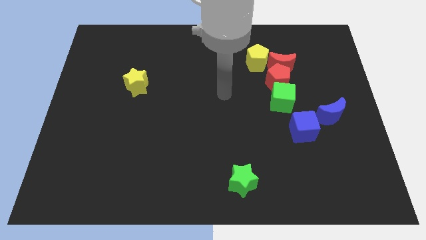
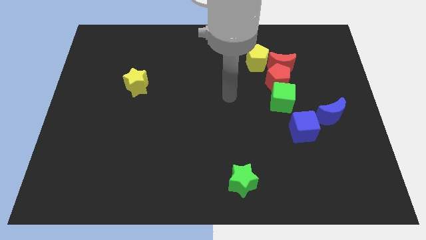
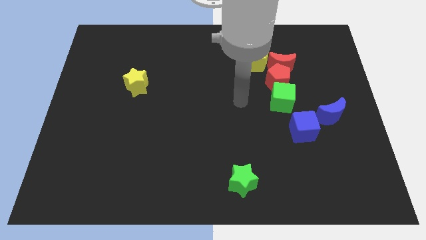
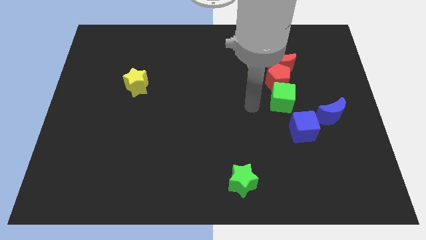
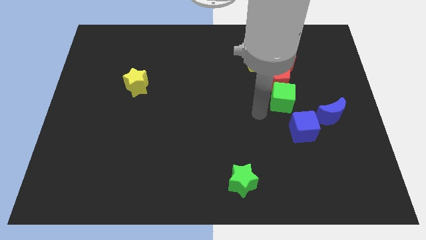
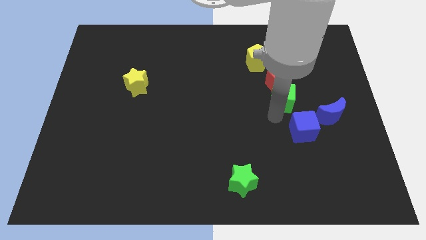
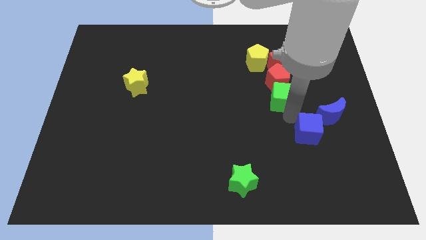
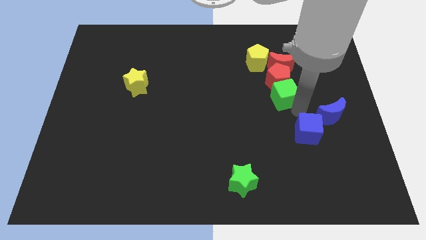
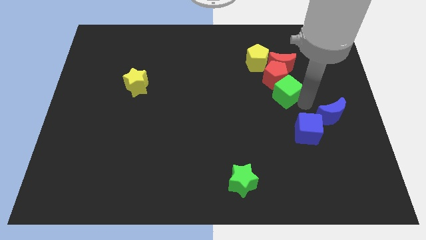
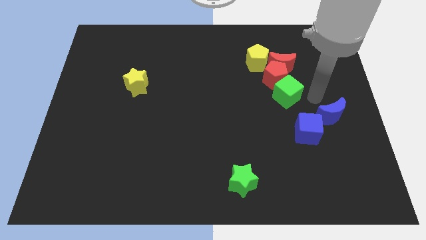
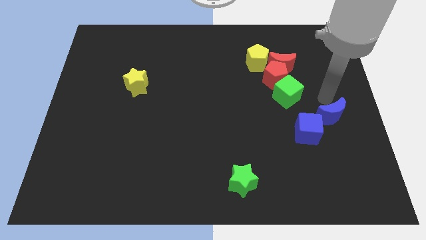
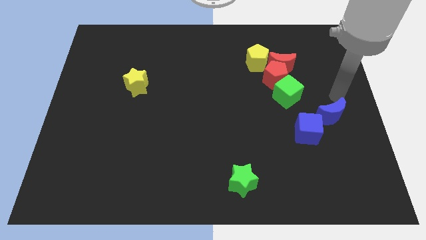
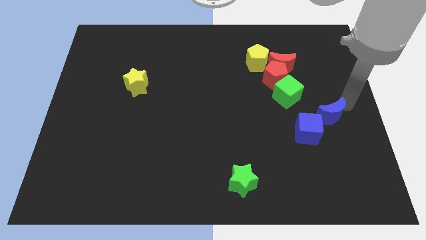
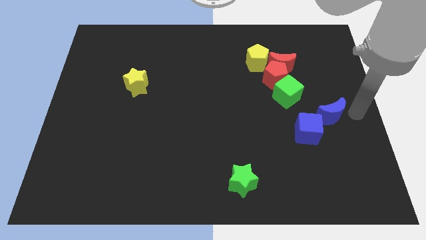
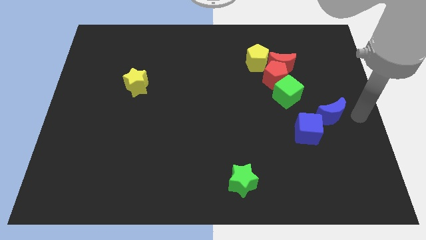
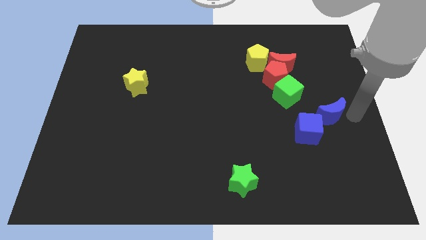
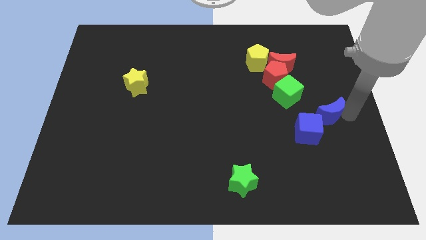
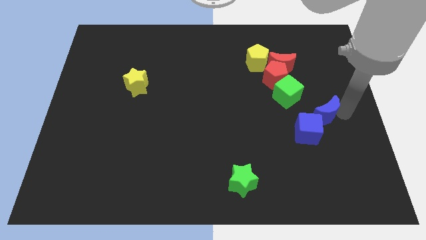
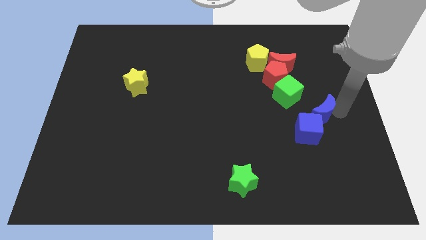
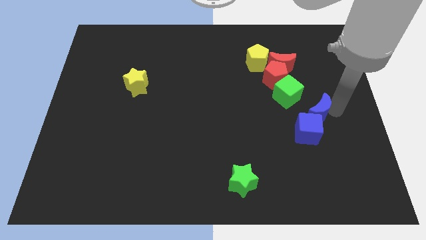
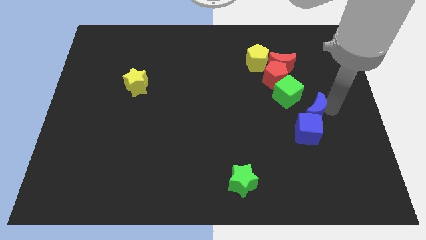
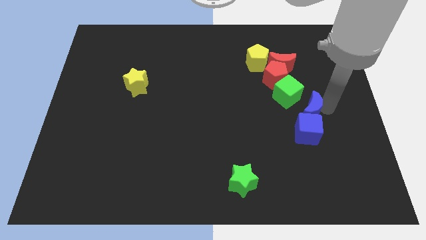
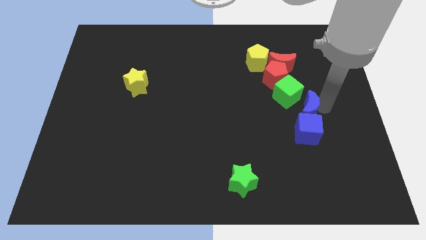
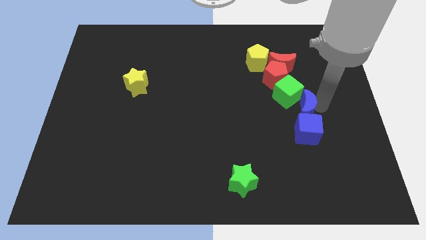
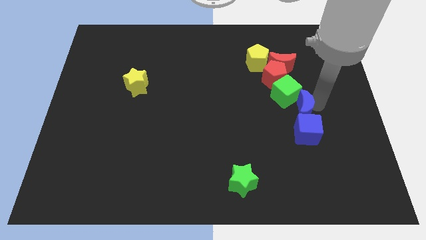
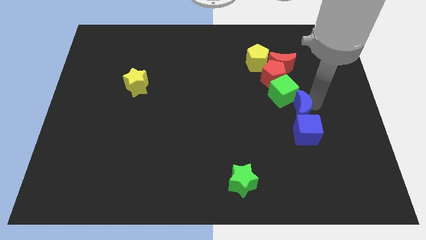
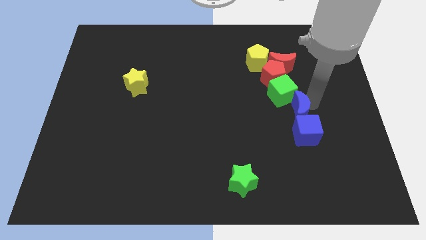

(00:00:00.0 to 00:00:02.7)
slightly push the blue moon to the left

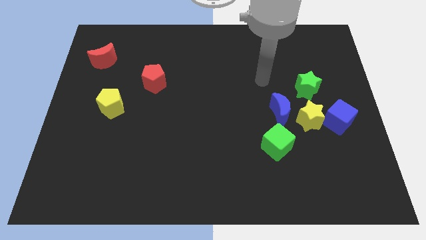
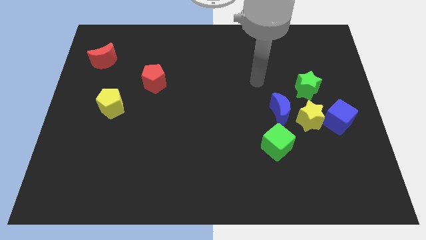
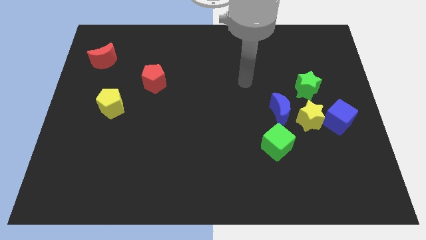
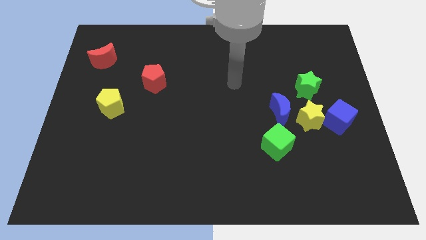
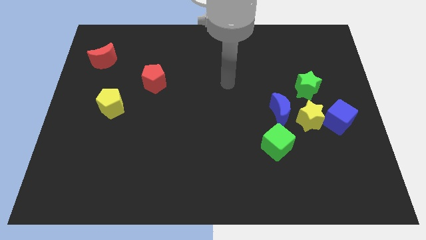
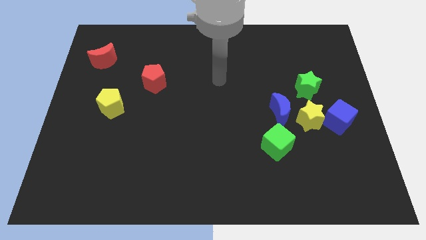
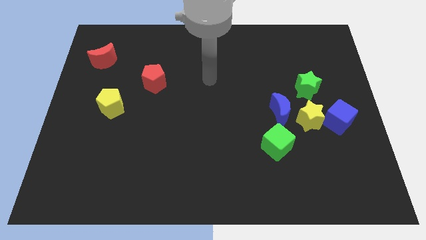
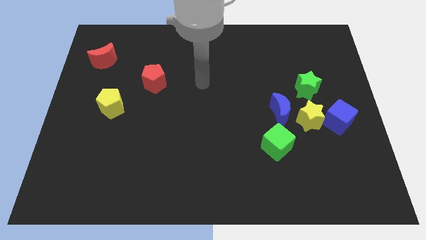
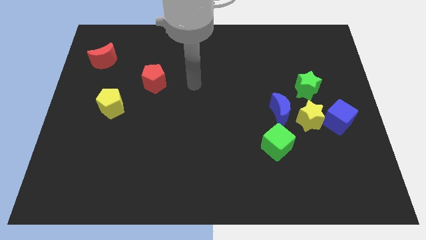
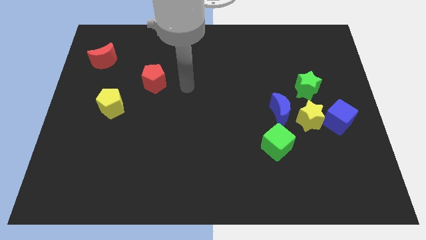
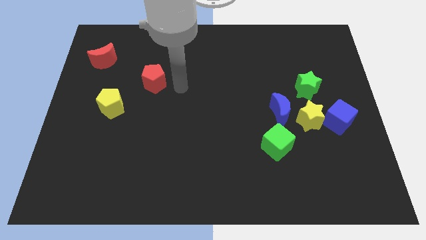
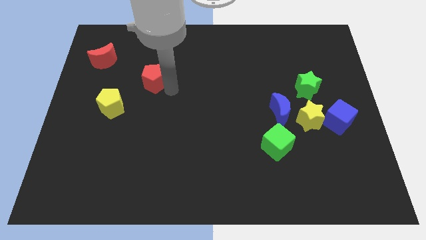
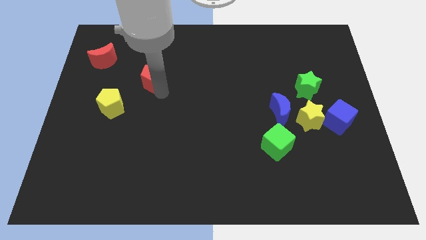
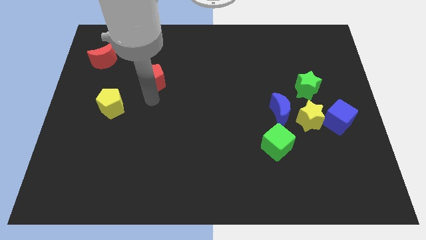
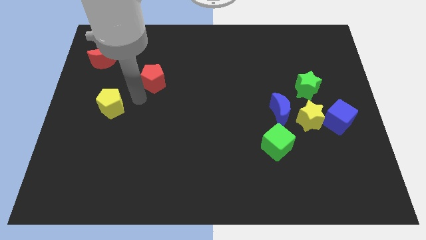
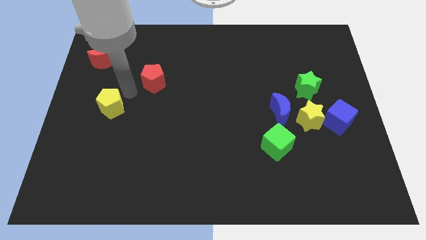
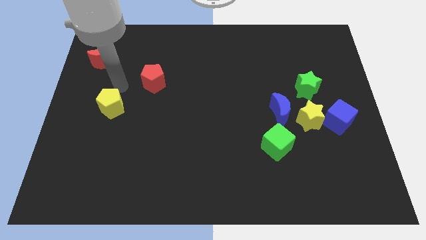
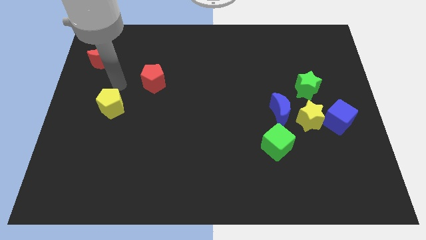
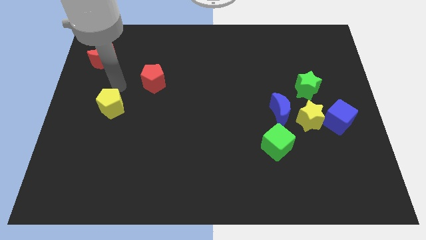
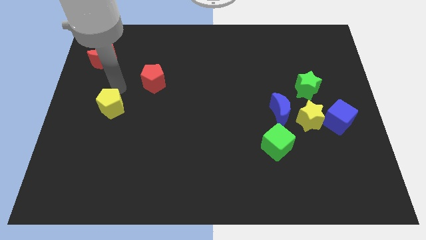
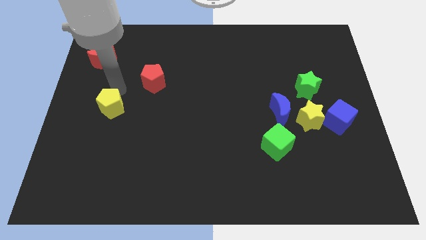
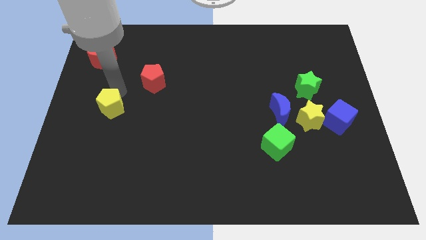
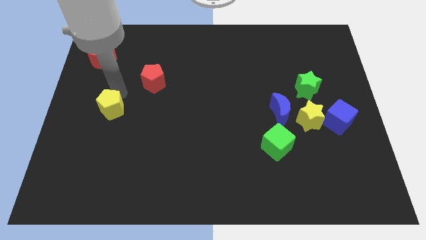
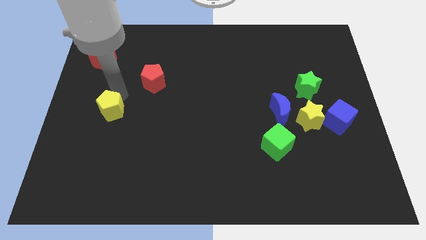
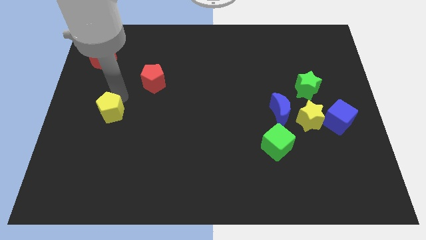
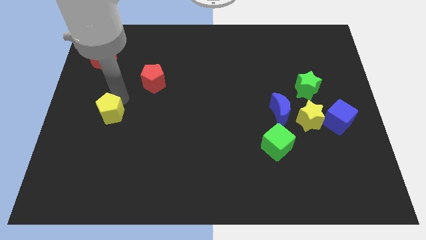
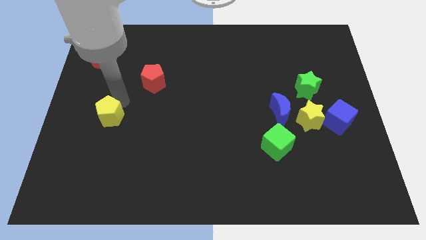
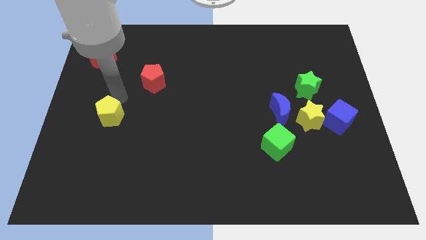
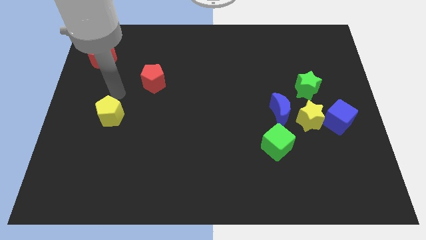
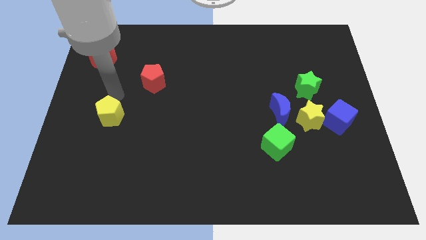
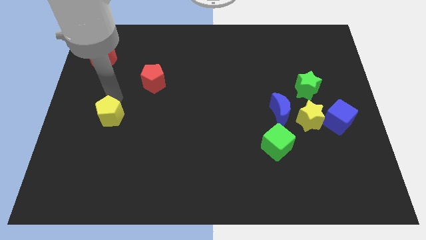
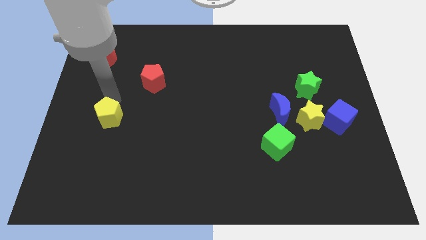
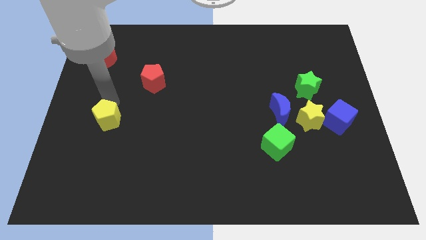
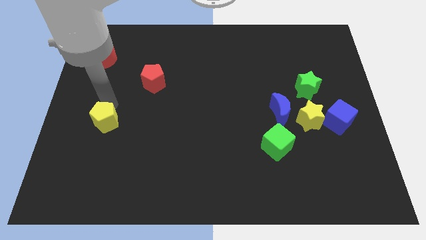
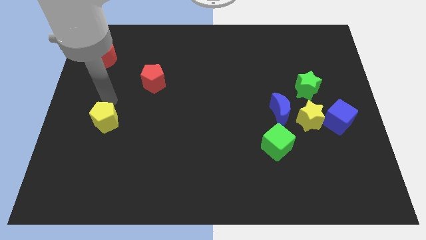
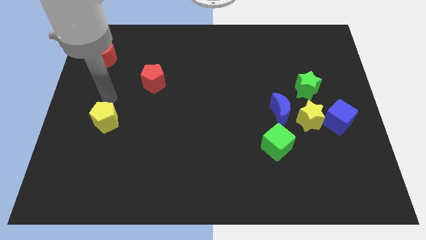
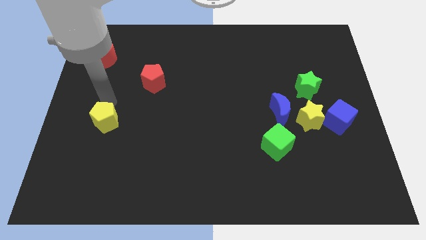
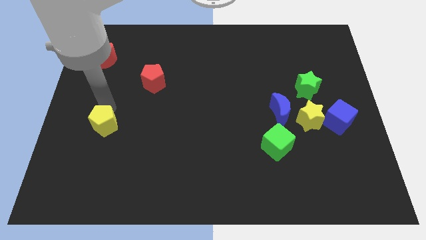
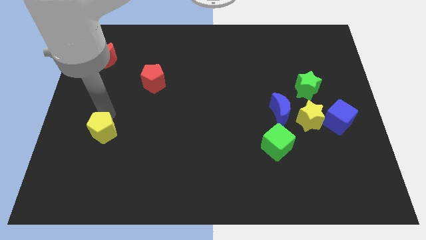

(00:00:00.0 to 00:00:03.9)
push the yellow pentagon a little bit downwards

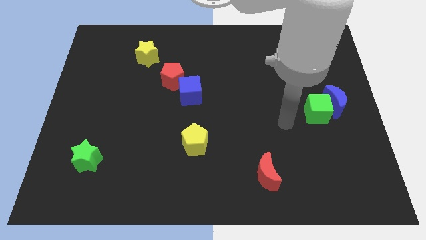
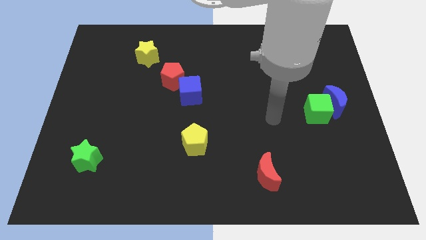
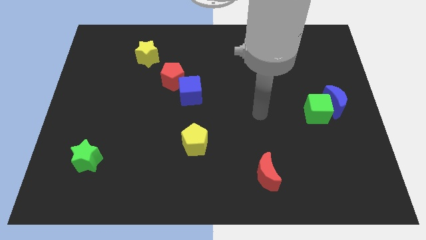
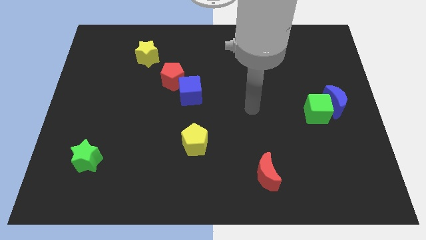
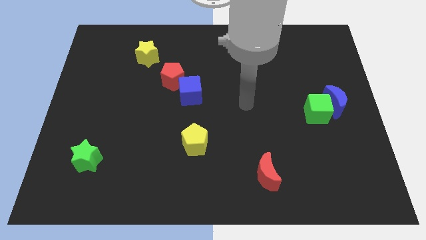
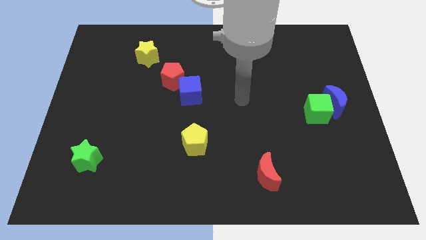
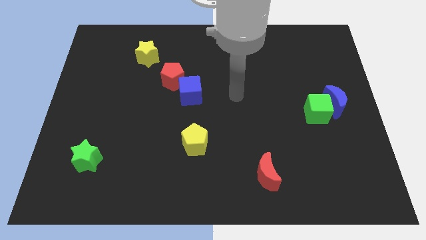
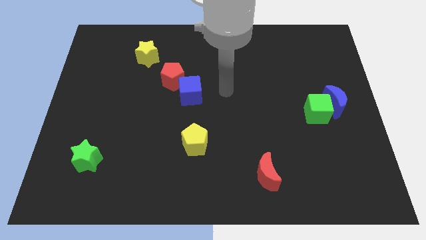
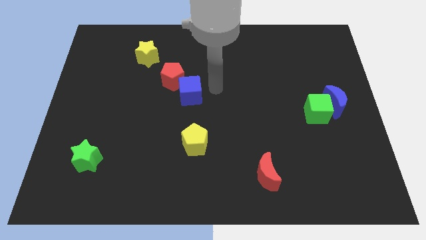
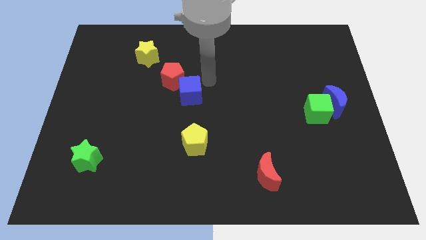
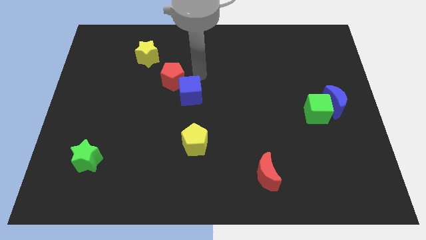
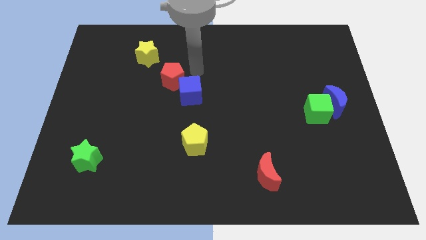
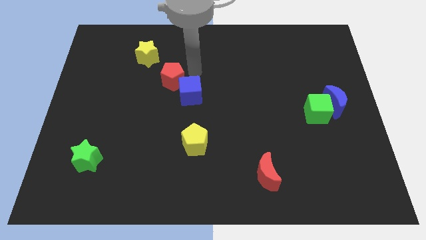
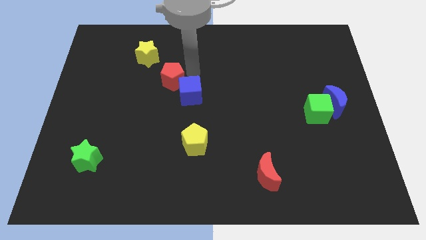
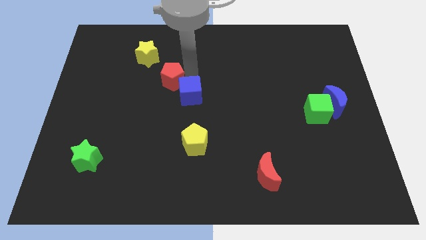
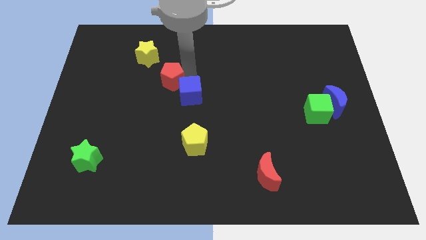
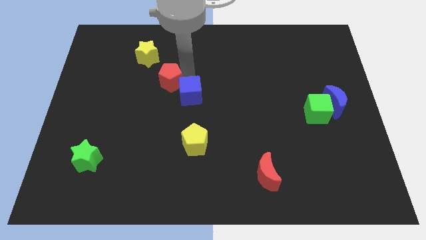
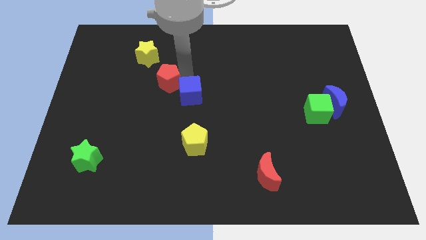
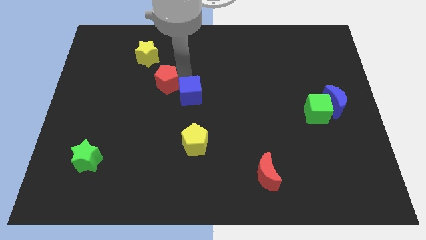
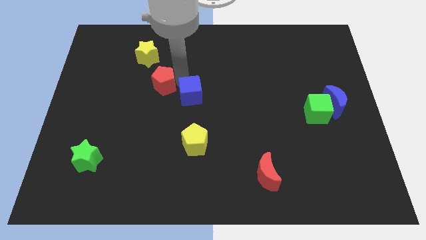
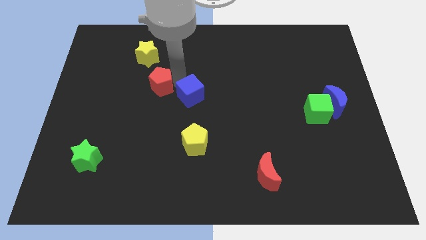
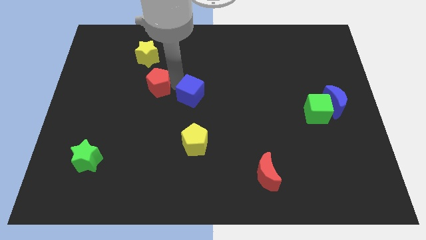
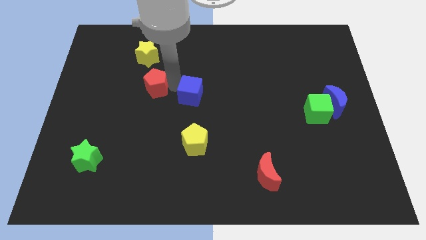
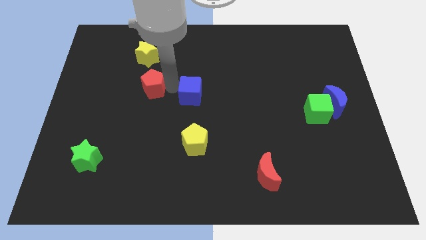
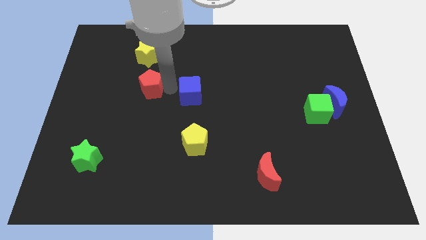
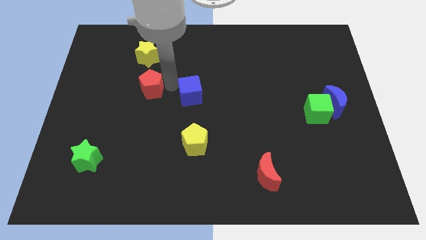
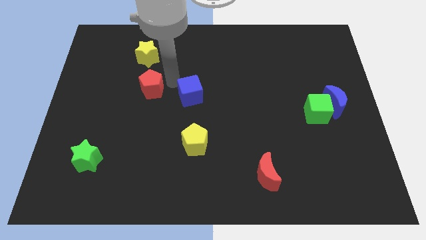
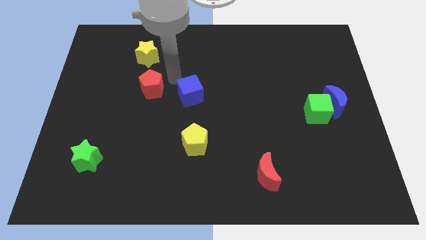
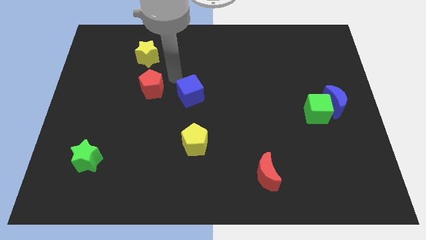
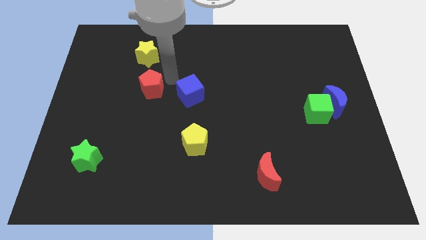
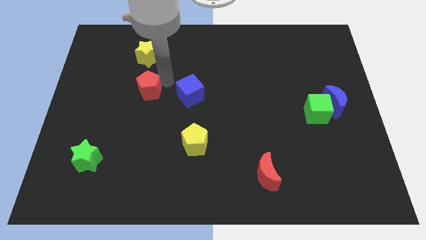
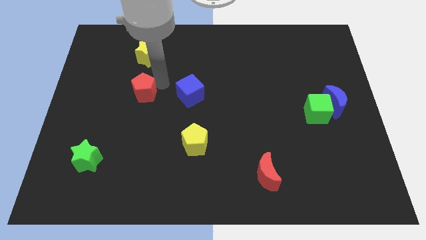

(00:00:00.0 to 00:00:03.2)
slightly push the red pentagon downwards and to the left
